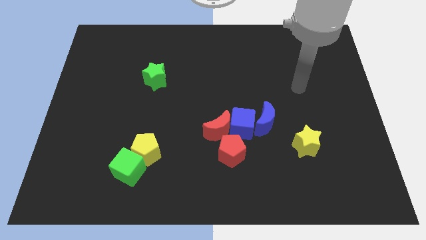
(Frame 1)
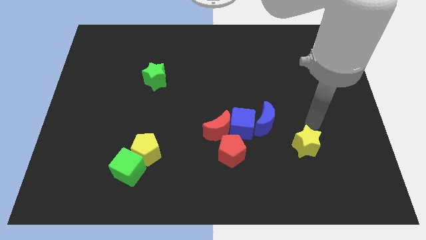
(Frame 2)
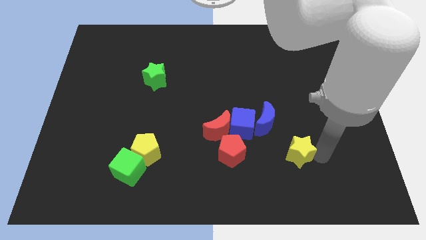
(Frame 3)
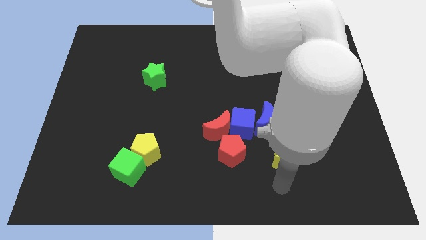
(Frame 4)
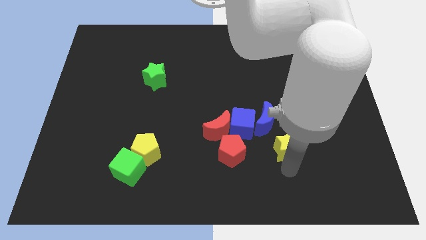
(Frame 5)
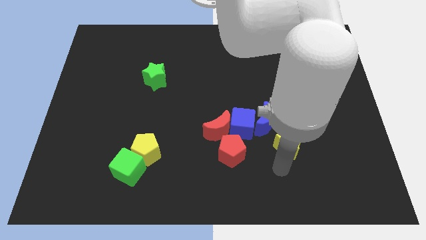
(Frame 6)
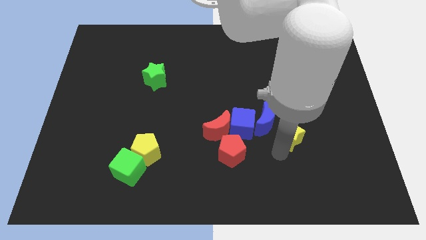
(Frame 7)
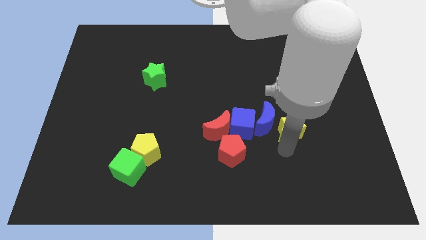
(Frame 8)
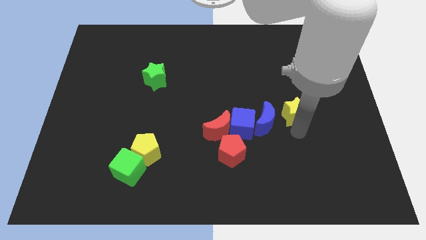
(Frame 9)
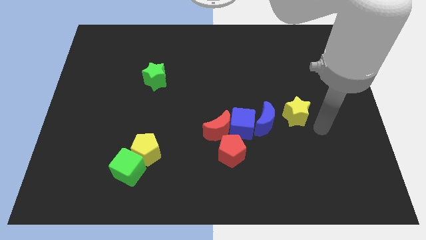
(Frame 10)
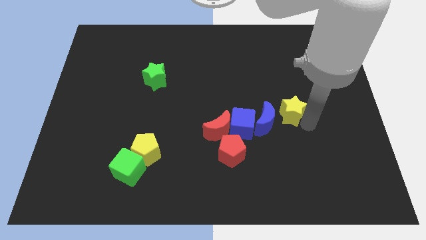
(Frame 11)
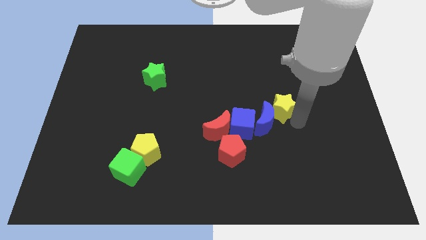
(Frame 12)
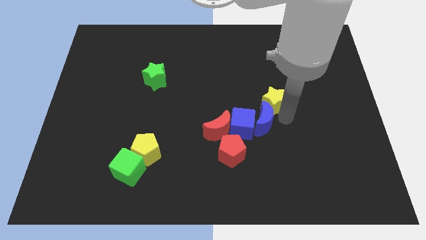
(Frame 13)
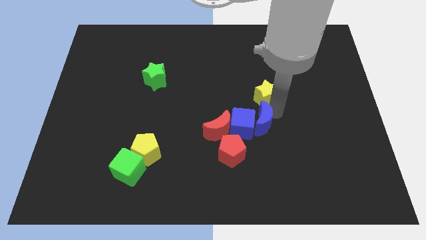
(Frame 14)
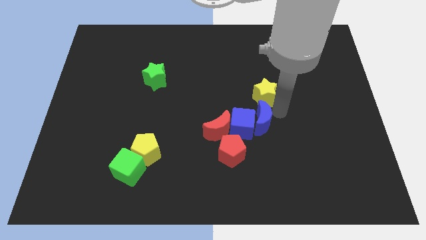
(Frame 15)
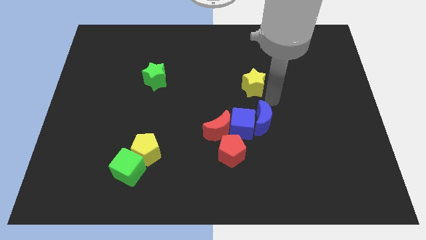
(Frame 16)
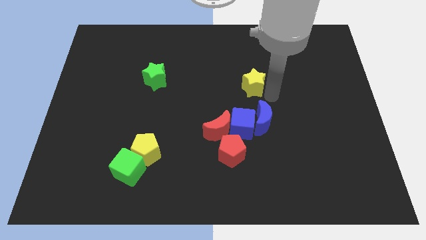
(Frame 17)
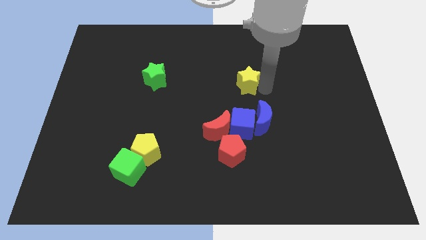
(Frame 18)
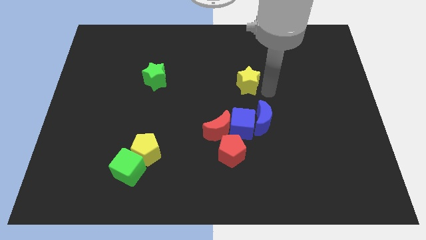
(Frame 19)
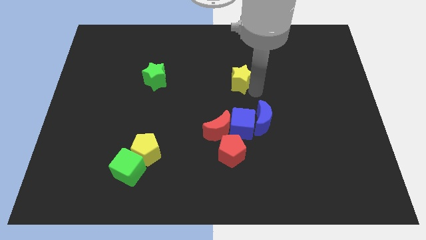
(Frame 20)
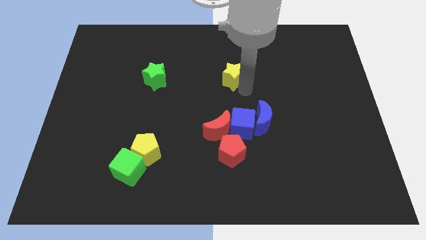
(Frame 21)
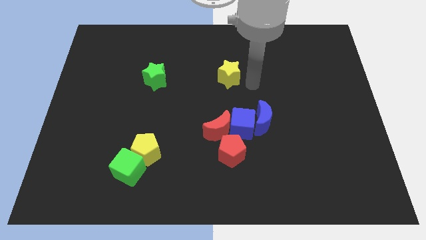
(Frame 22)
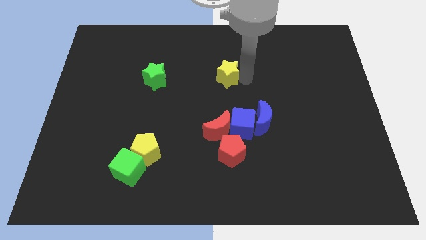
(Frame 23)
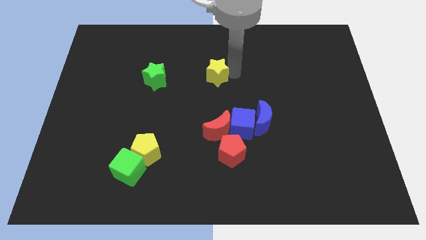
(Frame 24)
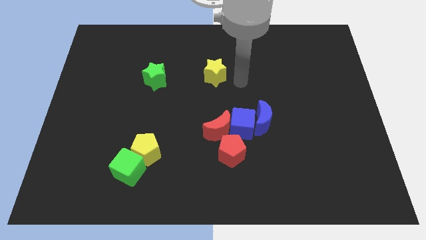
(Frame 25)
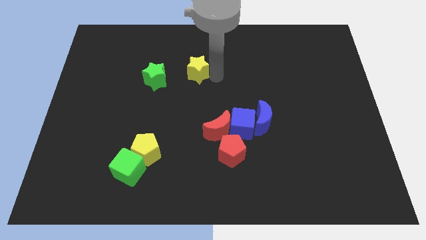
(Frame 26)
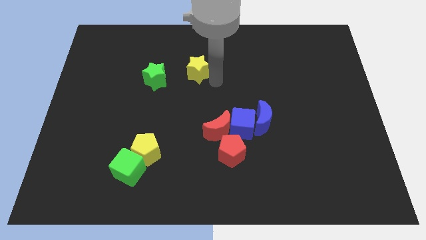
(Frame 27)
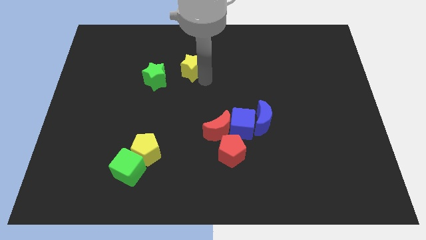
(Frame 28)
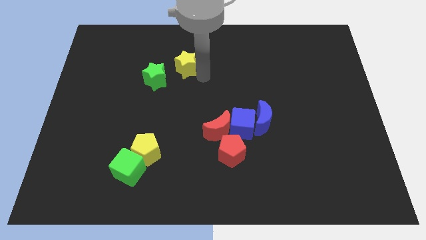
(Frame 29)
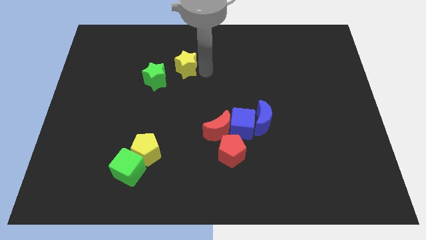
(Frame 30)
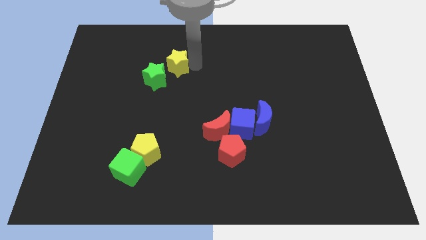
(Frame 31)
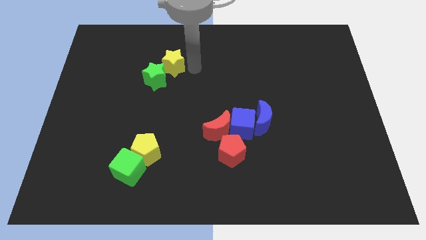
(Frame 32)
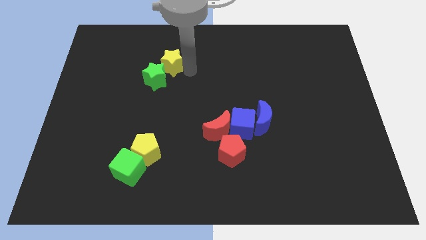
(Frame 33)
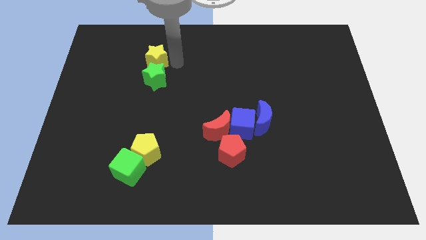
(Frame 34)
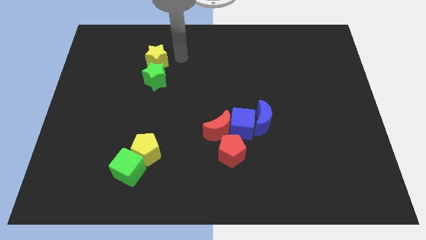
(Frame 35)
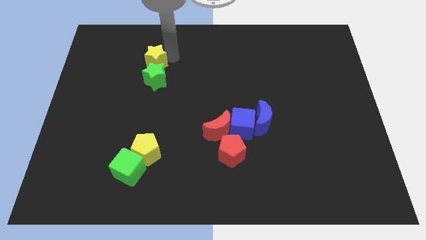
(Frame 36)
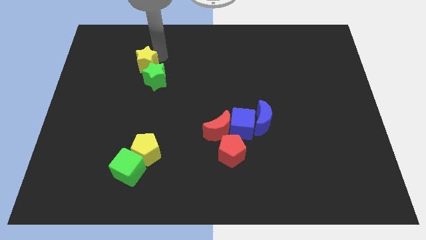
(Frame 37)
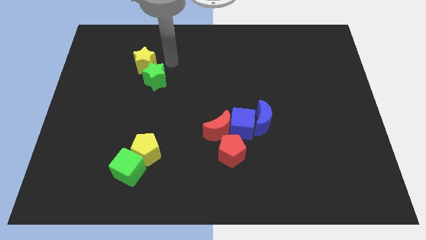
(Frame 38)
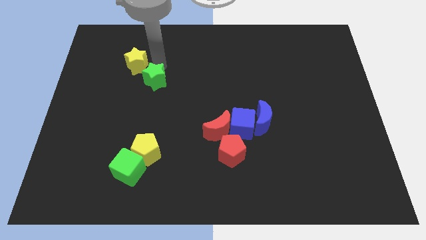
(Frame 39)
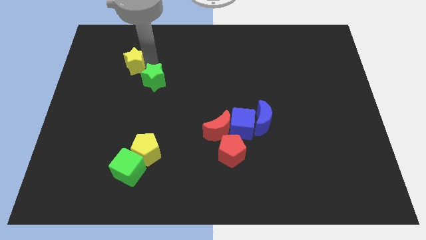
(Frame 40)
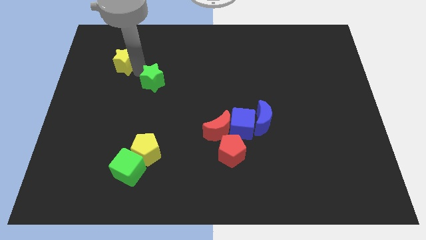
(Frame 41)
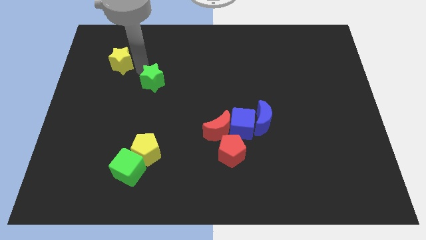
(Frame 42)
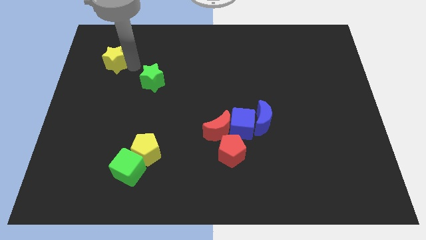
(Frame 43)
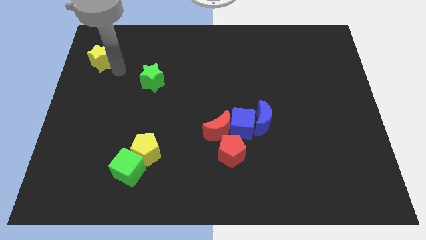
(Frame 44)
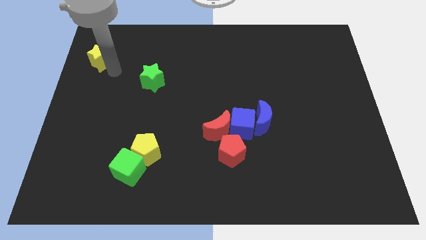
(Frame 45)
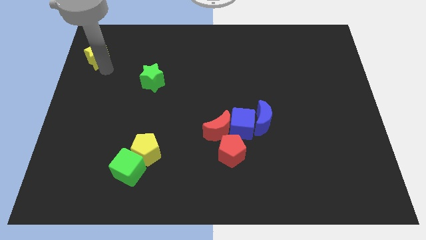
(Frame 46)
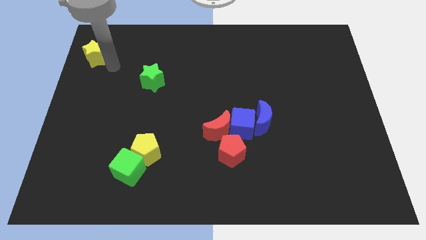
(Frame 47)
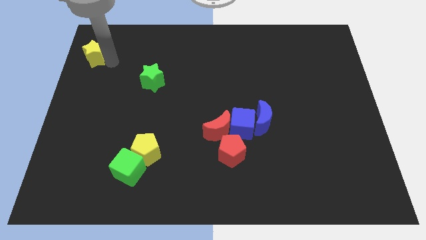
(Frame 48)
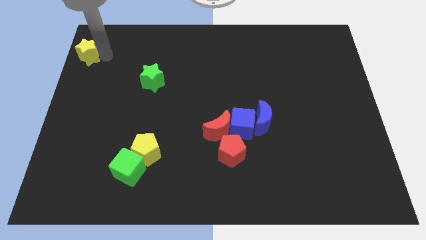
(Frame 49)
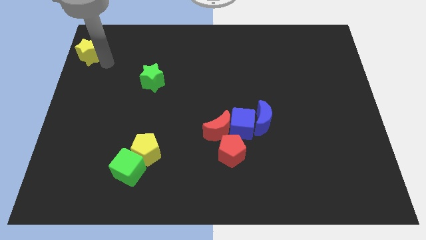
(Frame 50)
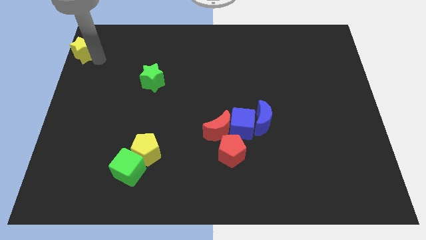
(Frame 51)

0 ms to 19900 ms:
put the yellow star to the top left of the board

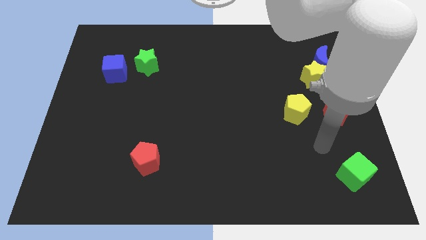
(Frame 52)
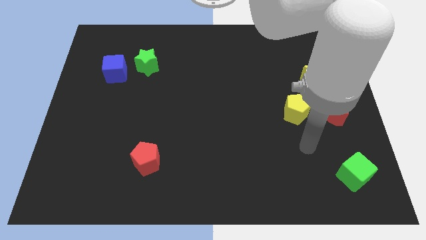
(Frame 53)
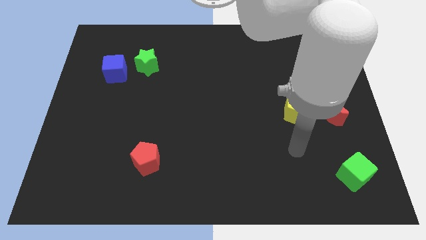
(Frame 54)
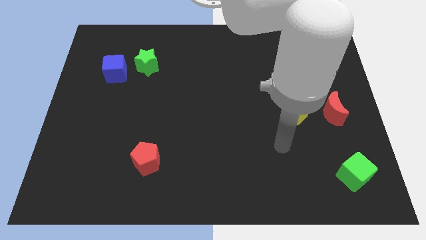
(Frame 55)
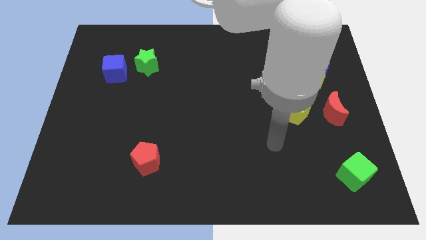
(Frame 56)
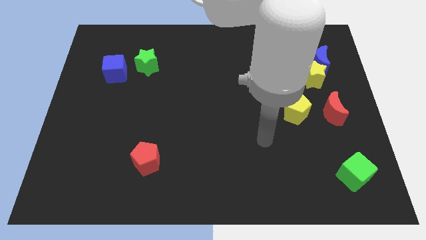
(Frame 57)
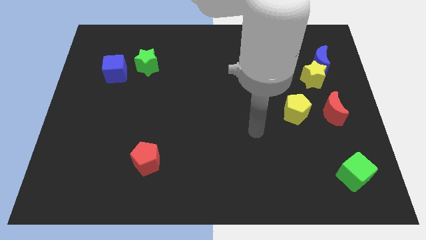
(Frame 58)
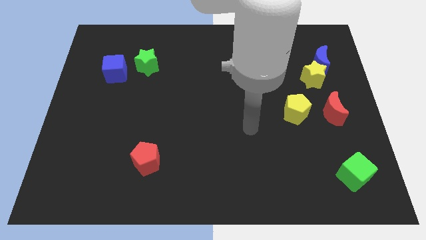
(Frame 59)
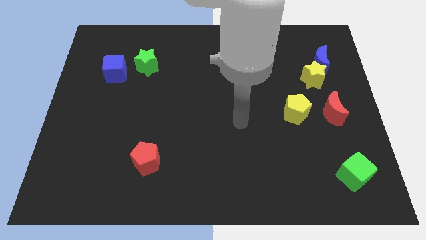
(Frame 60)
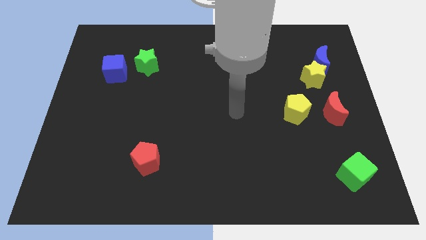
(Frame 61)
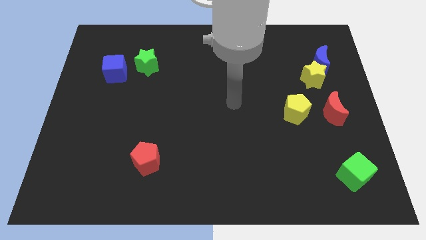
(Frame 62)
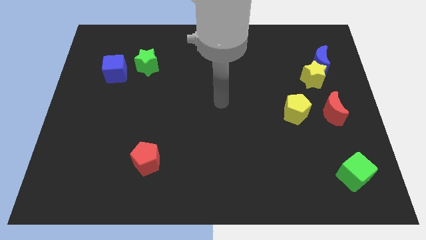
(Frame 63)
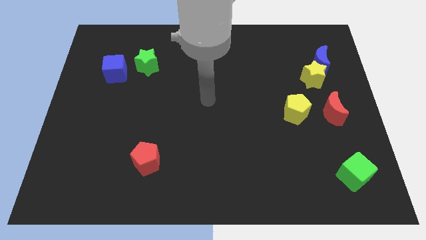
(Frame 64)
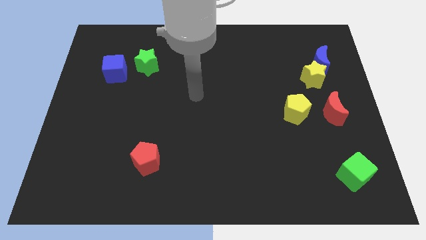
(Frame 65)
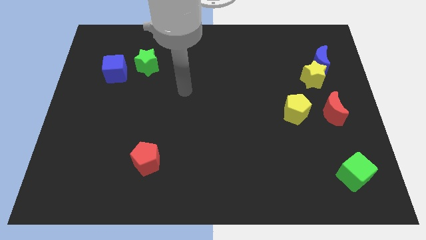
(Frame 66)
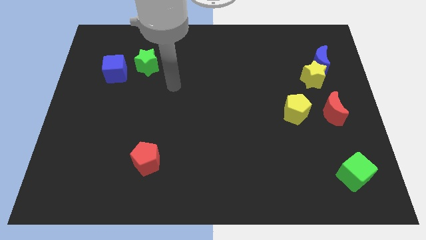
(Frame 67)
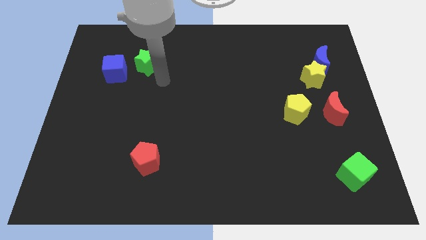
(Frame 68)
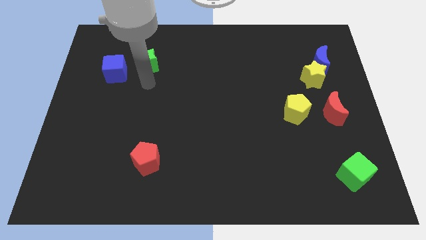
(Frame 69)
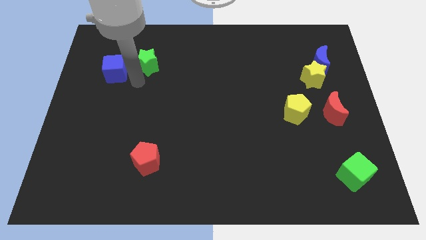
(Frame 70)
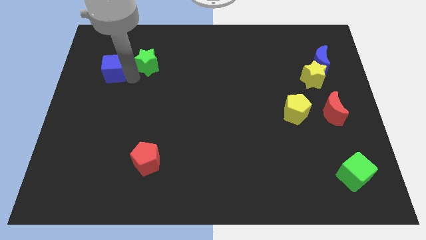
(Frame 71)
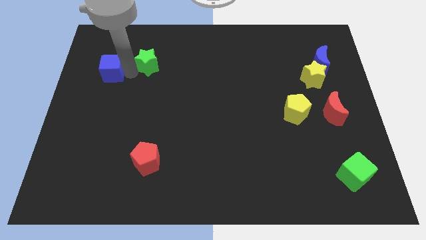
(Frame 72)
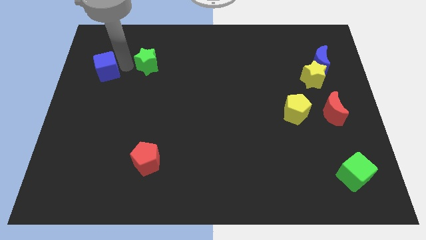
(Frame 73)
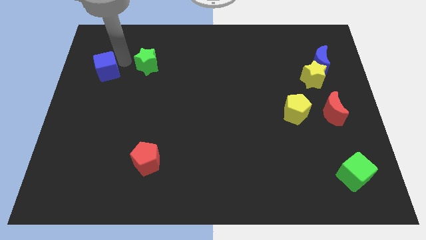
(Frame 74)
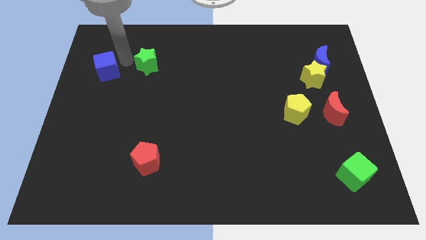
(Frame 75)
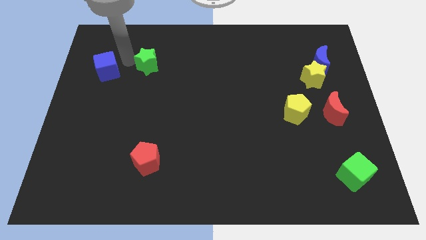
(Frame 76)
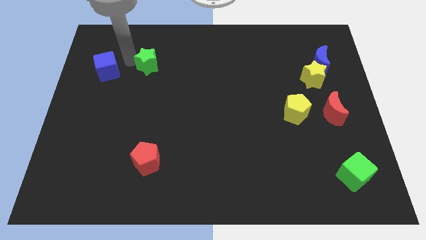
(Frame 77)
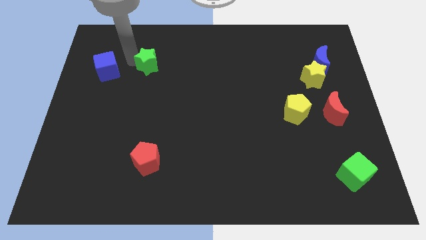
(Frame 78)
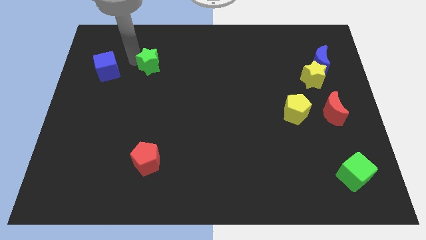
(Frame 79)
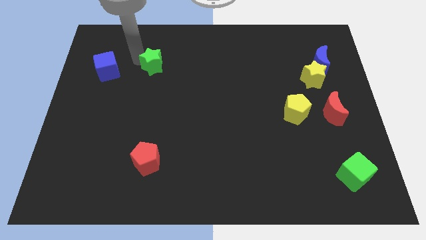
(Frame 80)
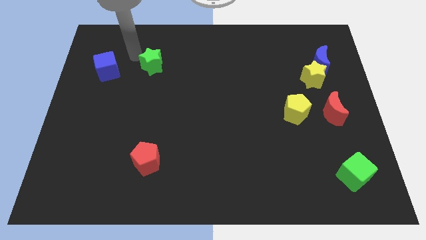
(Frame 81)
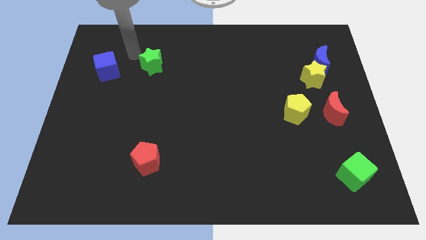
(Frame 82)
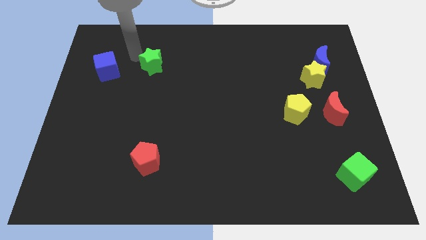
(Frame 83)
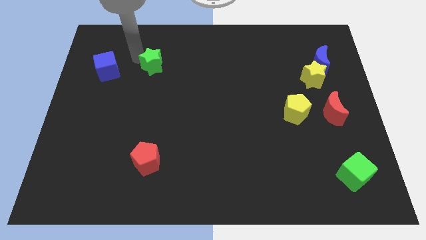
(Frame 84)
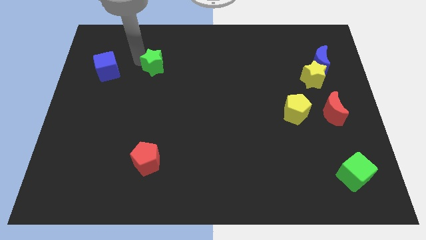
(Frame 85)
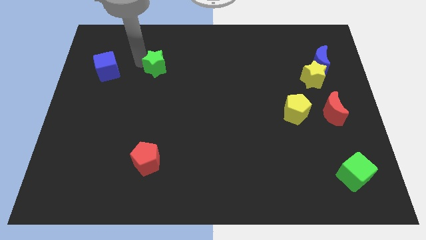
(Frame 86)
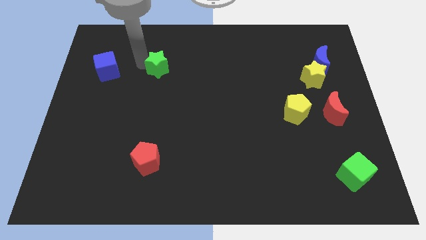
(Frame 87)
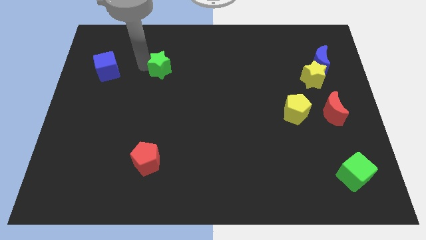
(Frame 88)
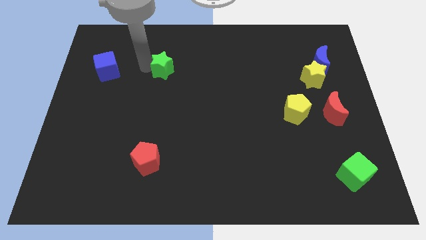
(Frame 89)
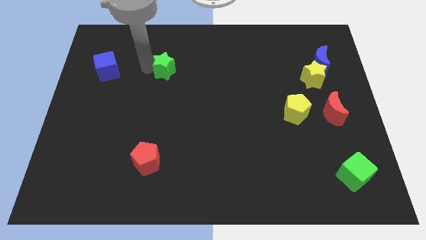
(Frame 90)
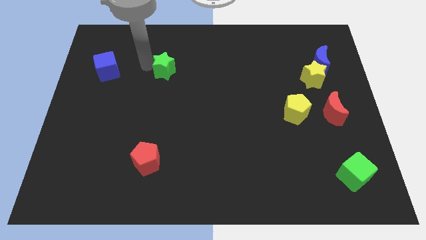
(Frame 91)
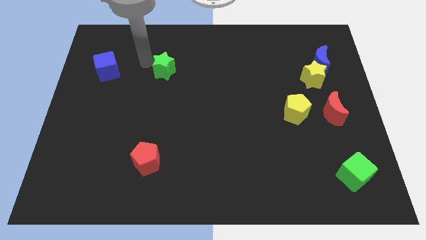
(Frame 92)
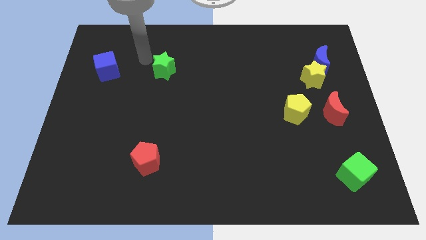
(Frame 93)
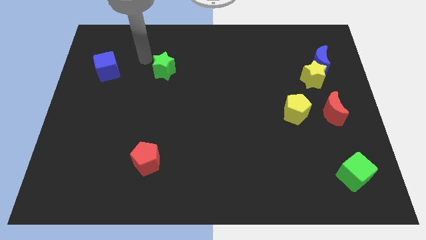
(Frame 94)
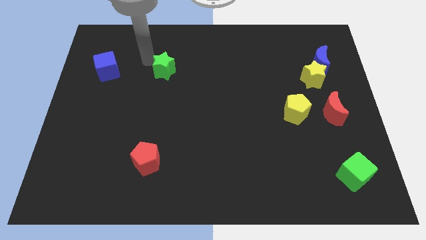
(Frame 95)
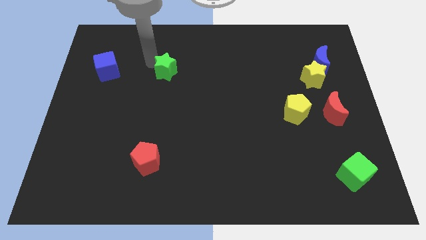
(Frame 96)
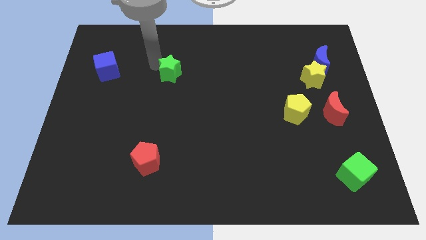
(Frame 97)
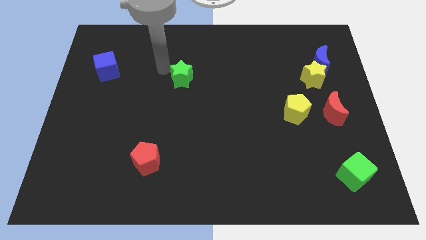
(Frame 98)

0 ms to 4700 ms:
put the green star to the middle of the board
